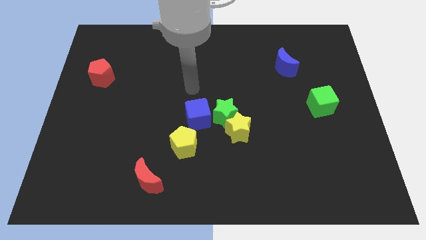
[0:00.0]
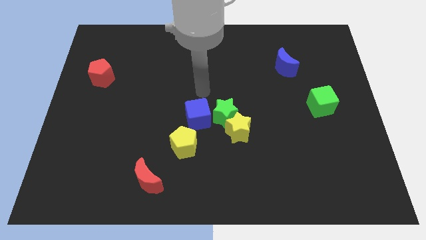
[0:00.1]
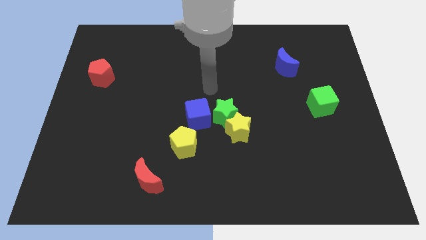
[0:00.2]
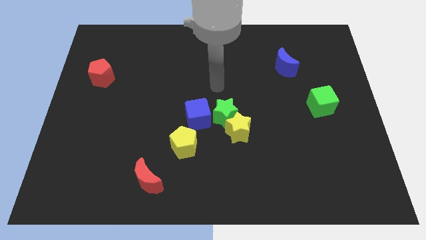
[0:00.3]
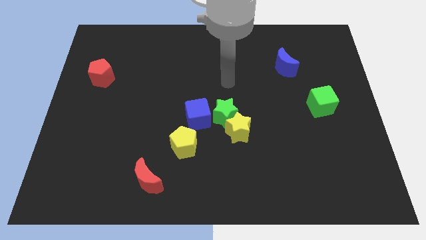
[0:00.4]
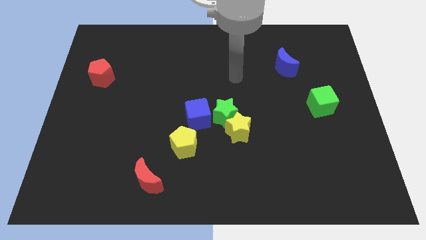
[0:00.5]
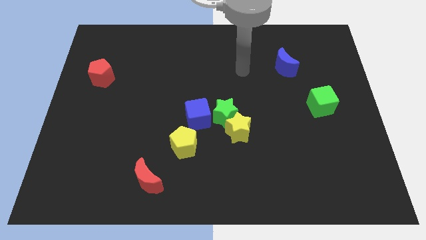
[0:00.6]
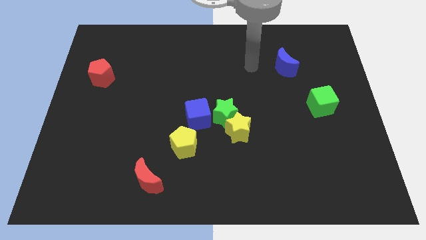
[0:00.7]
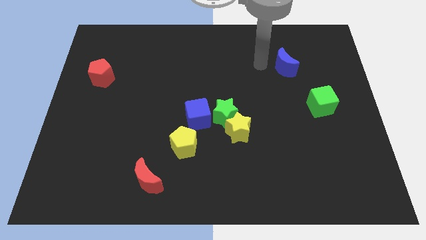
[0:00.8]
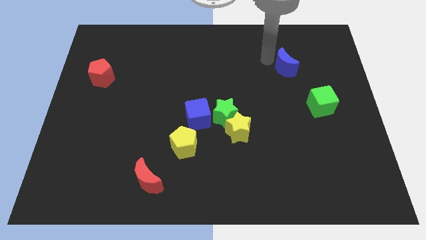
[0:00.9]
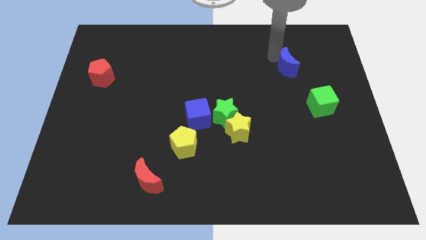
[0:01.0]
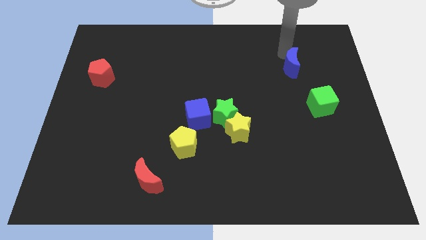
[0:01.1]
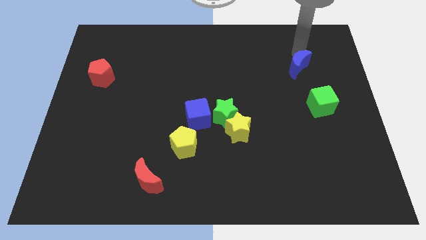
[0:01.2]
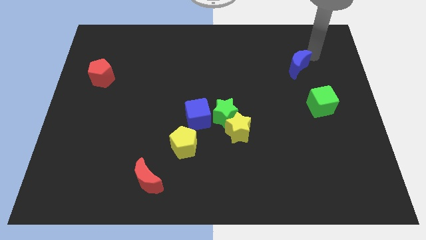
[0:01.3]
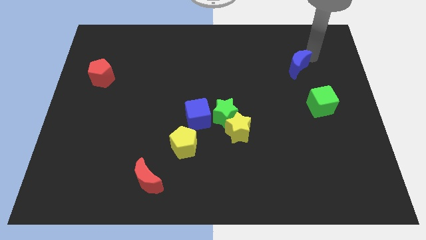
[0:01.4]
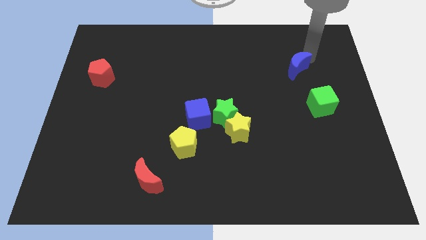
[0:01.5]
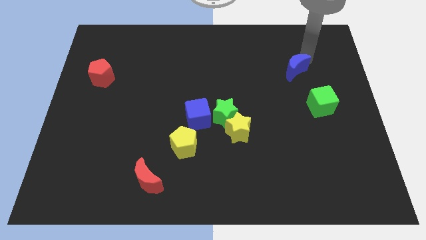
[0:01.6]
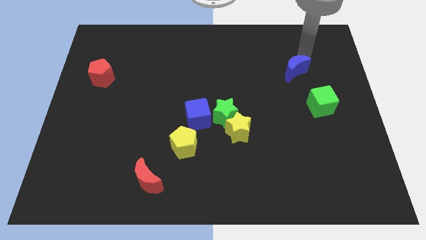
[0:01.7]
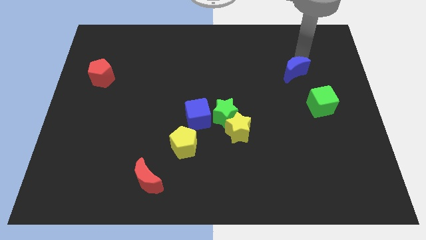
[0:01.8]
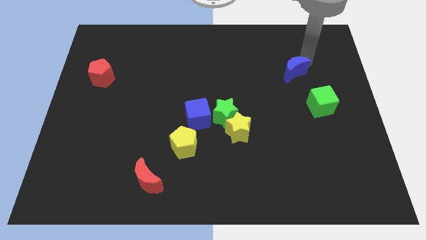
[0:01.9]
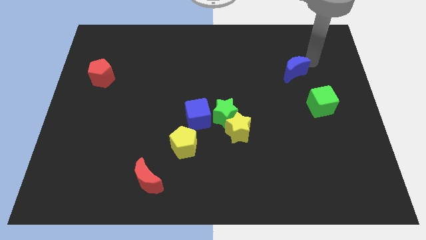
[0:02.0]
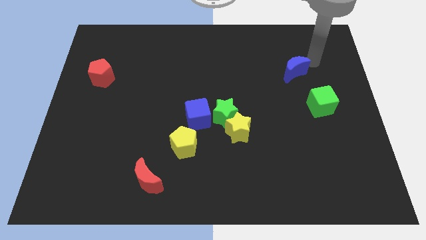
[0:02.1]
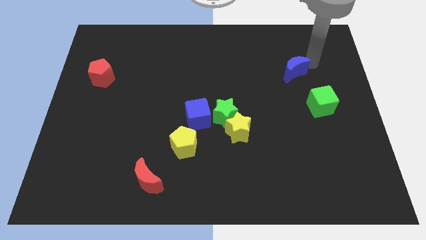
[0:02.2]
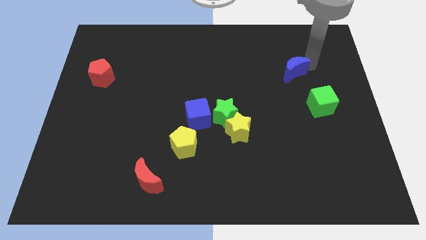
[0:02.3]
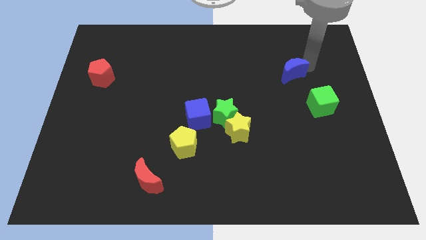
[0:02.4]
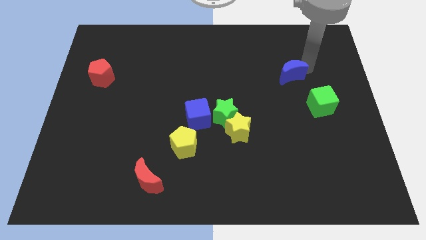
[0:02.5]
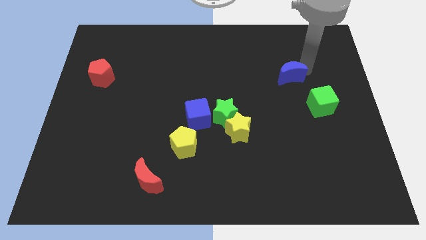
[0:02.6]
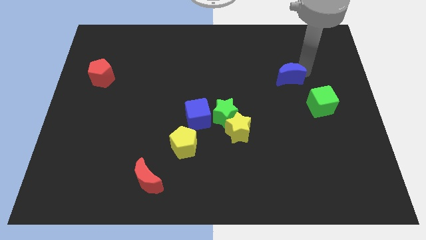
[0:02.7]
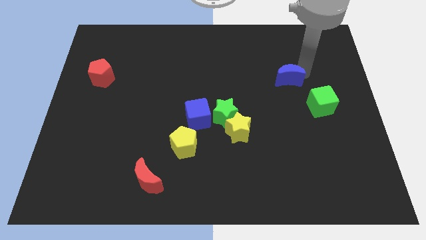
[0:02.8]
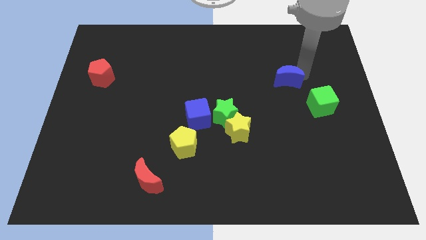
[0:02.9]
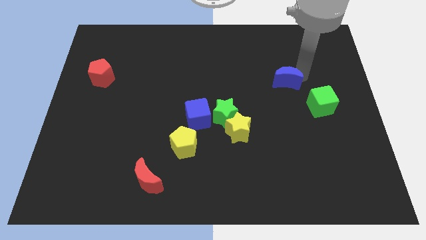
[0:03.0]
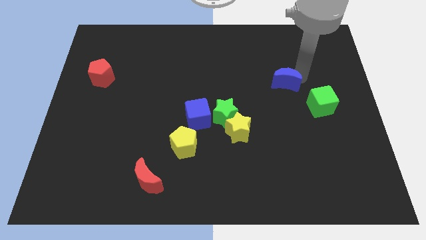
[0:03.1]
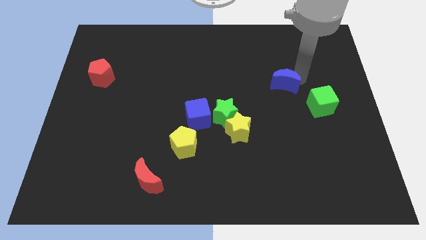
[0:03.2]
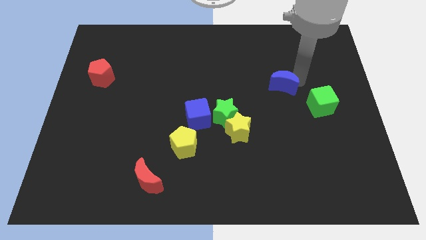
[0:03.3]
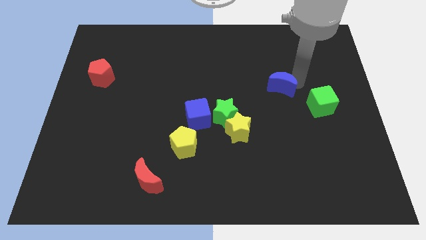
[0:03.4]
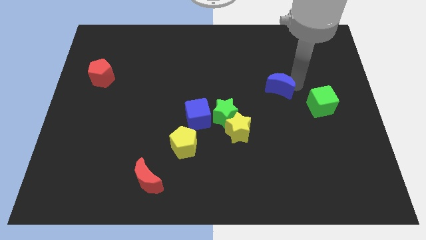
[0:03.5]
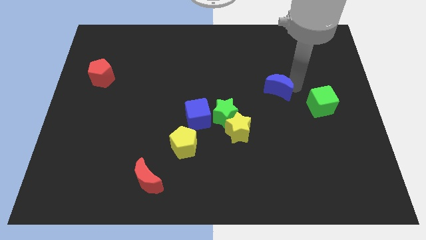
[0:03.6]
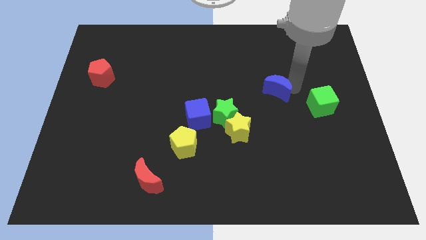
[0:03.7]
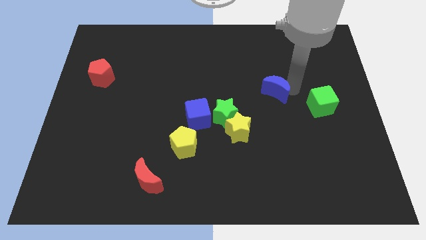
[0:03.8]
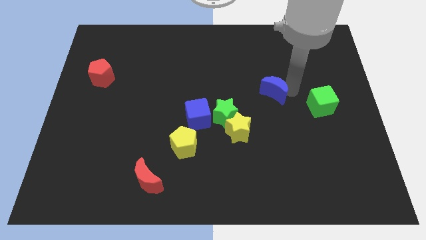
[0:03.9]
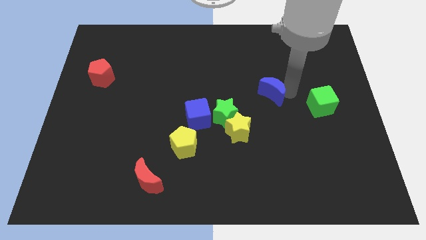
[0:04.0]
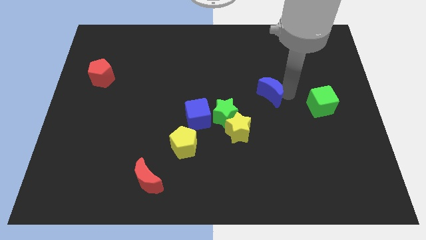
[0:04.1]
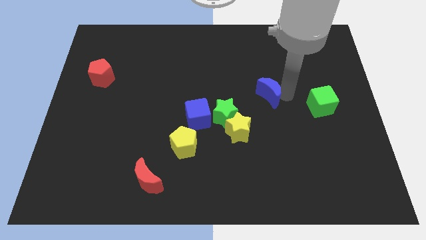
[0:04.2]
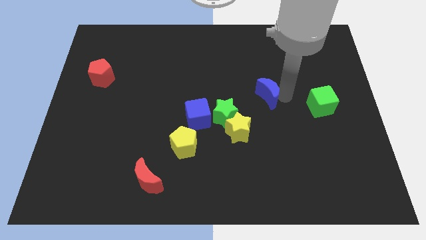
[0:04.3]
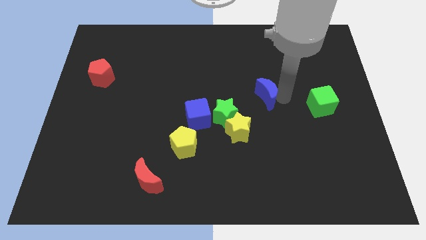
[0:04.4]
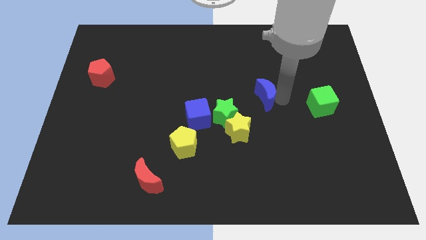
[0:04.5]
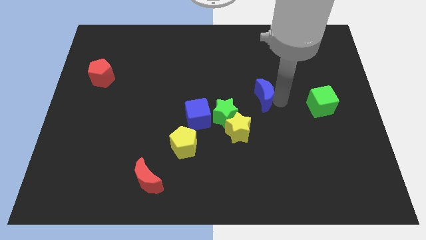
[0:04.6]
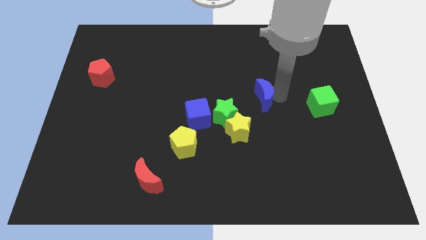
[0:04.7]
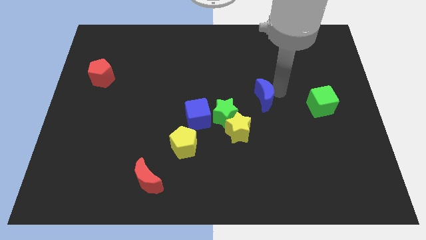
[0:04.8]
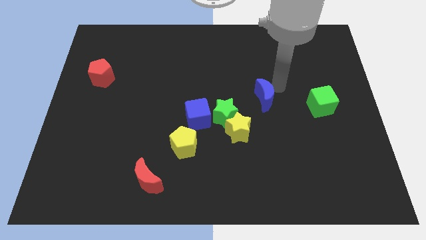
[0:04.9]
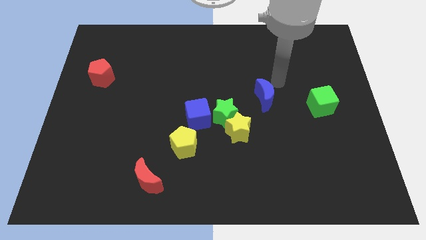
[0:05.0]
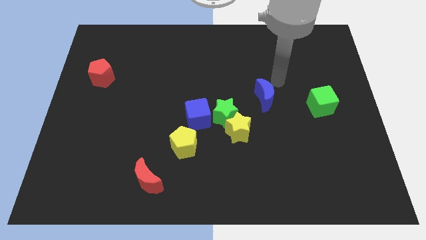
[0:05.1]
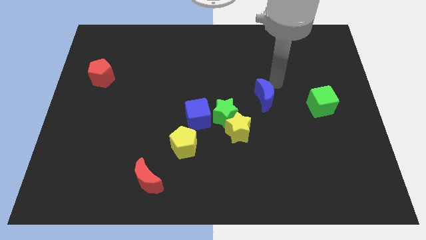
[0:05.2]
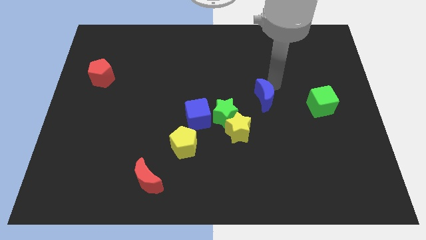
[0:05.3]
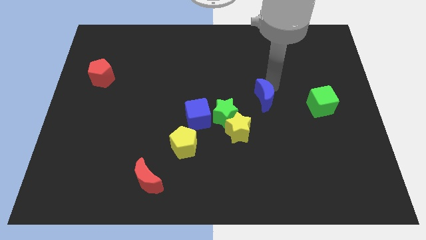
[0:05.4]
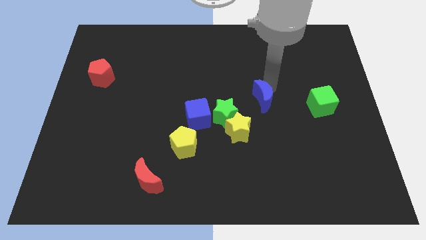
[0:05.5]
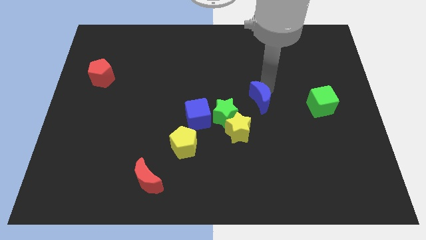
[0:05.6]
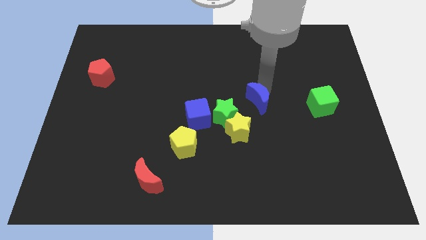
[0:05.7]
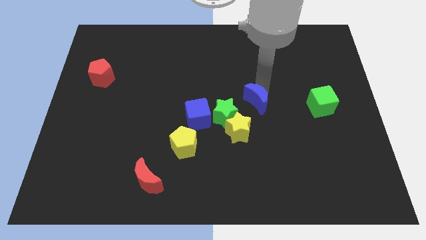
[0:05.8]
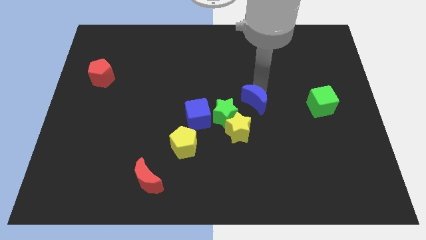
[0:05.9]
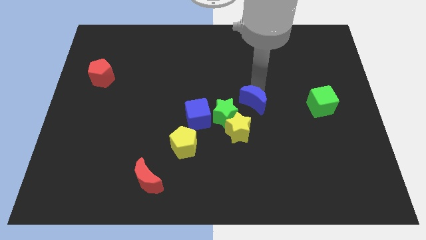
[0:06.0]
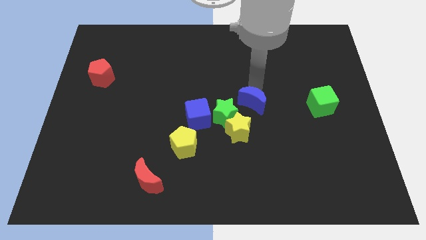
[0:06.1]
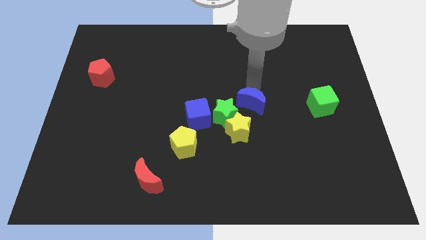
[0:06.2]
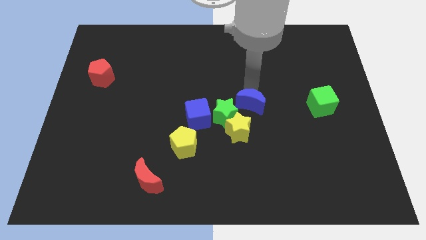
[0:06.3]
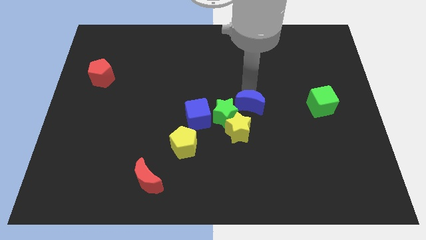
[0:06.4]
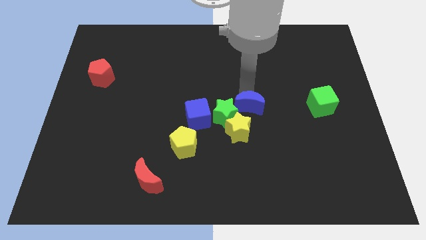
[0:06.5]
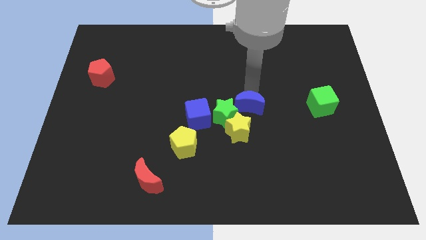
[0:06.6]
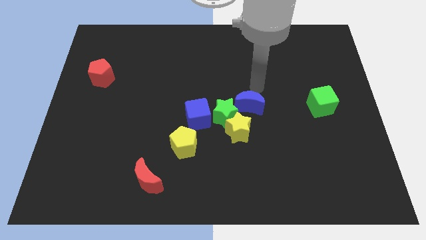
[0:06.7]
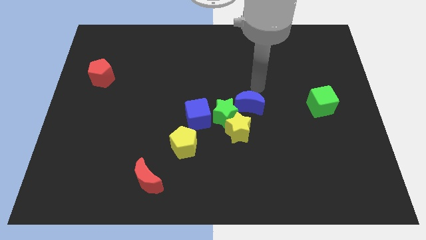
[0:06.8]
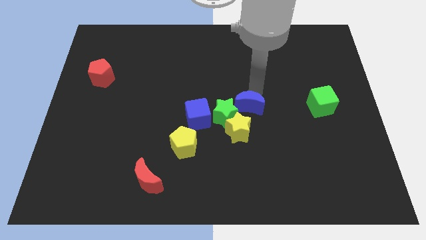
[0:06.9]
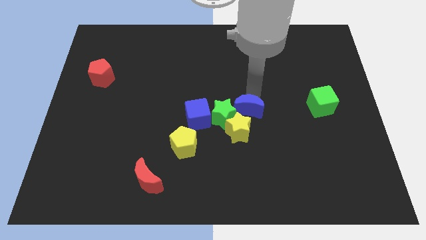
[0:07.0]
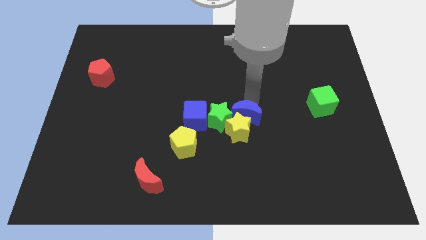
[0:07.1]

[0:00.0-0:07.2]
slide the blue moon towards the yellow star
